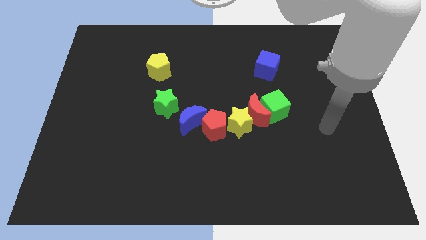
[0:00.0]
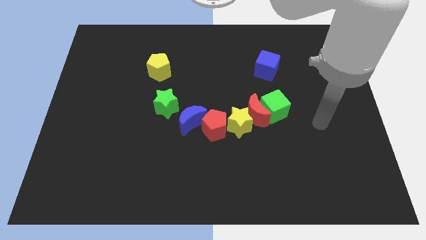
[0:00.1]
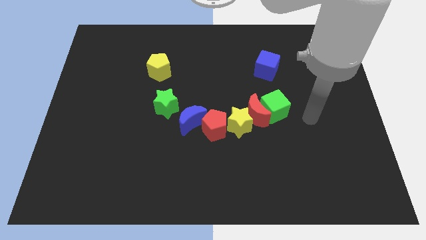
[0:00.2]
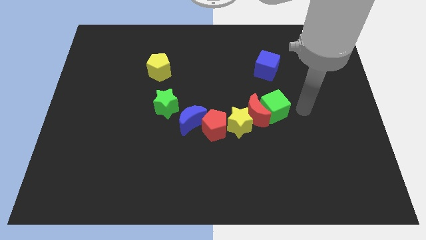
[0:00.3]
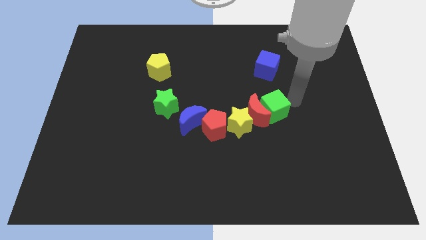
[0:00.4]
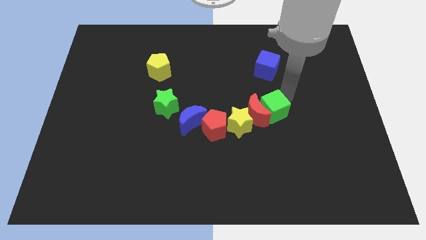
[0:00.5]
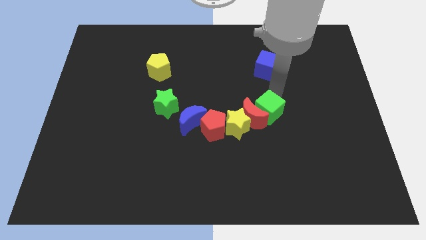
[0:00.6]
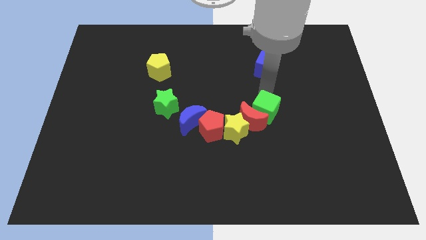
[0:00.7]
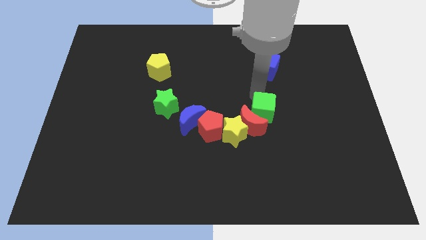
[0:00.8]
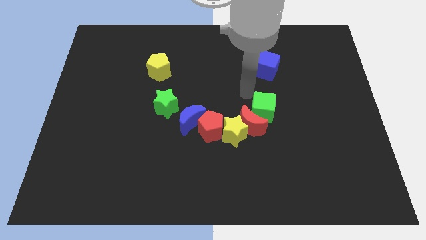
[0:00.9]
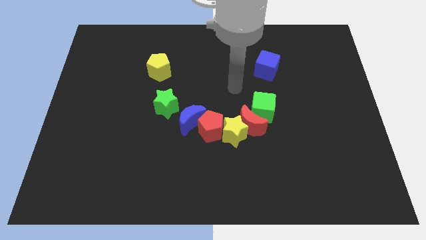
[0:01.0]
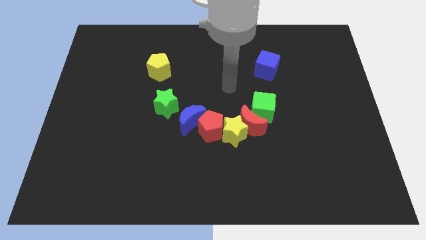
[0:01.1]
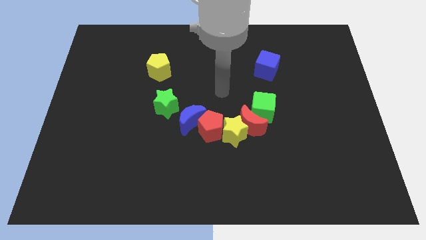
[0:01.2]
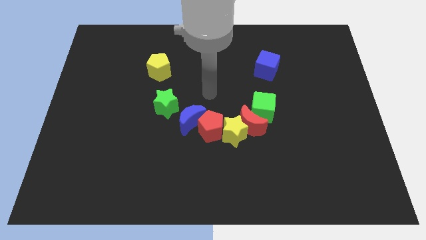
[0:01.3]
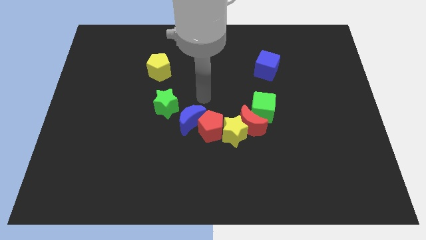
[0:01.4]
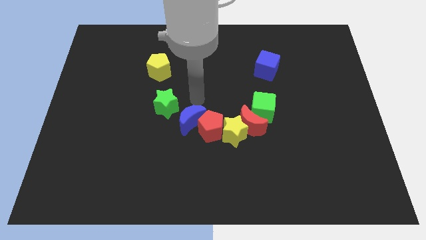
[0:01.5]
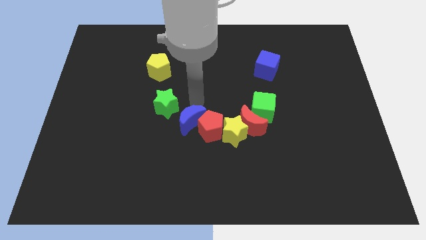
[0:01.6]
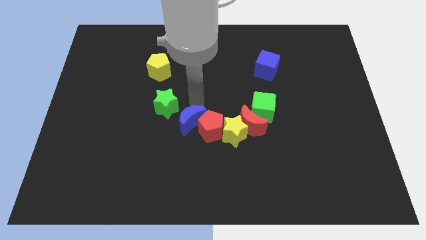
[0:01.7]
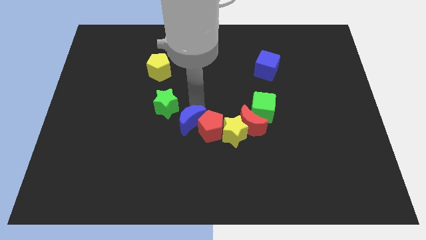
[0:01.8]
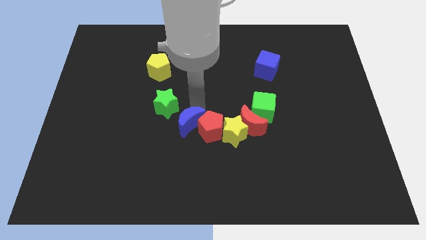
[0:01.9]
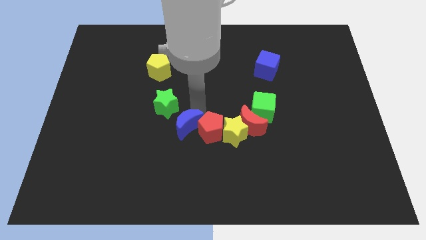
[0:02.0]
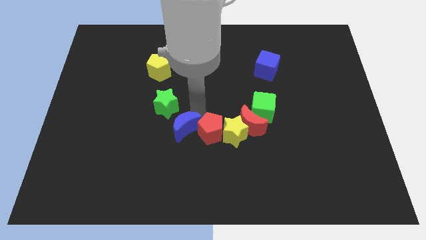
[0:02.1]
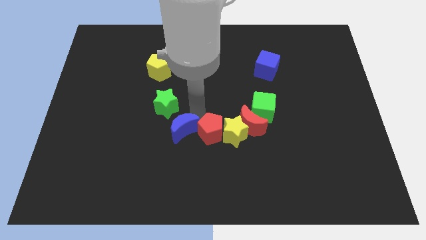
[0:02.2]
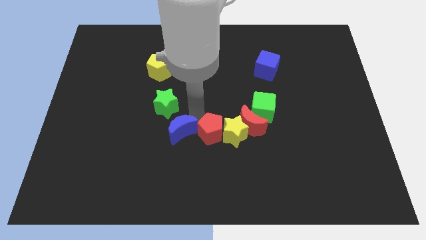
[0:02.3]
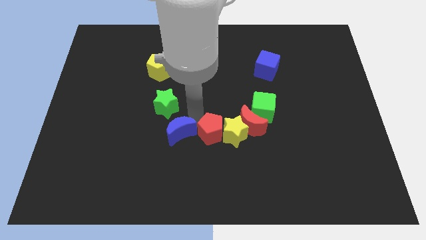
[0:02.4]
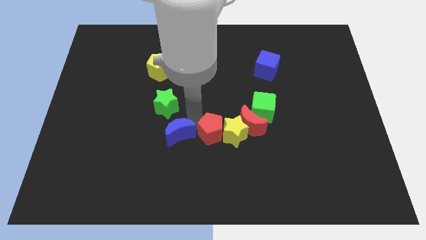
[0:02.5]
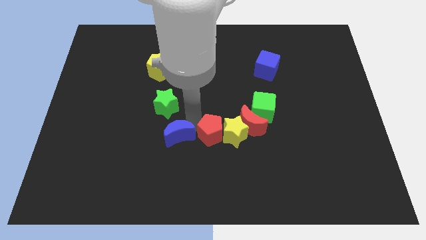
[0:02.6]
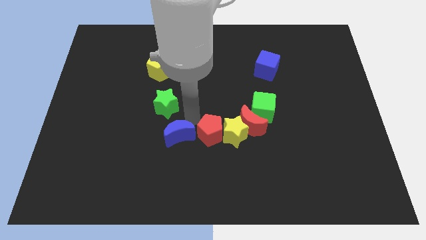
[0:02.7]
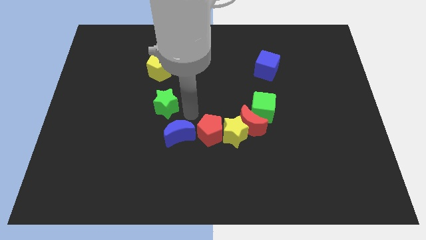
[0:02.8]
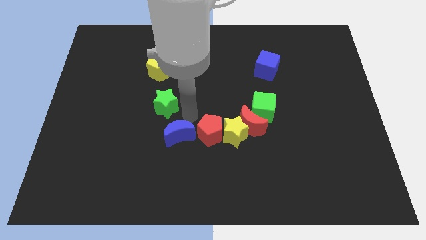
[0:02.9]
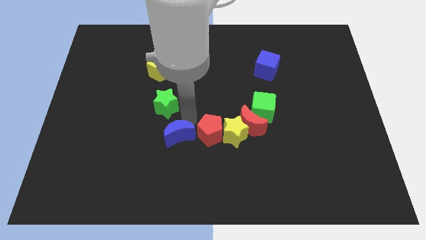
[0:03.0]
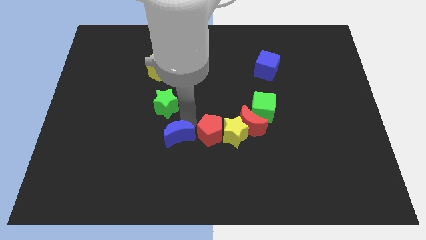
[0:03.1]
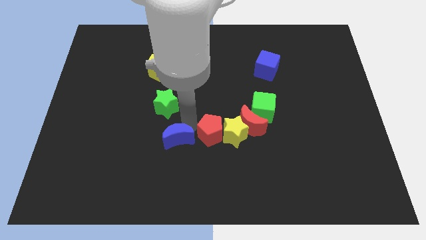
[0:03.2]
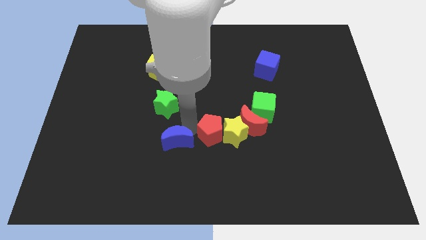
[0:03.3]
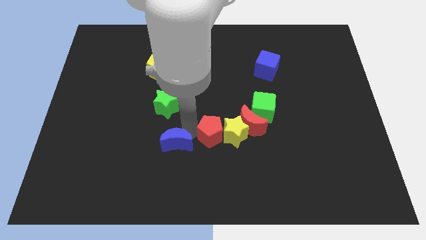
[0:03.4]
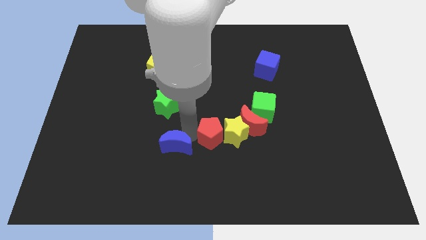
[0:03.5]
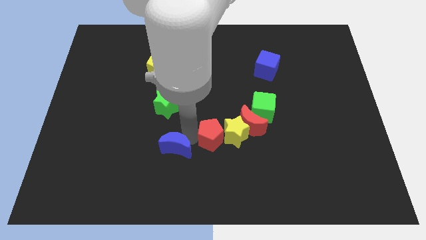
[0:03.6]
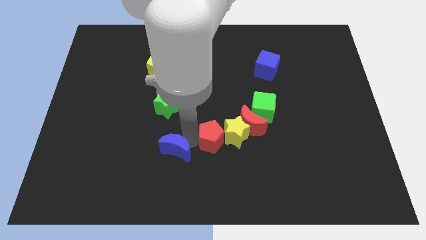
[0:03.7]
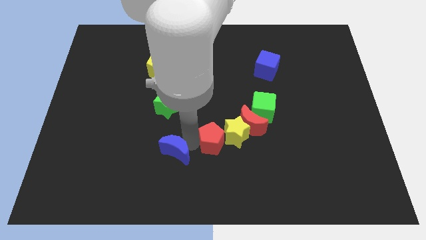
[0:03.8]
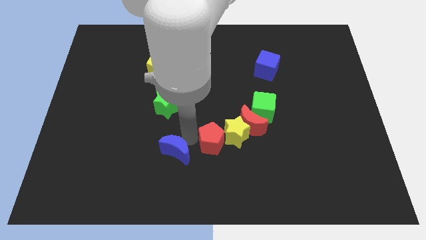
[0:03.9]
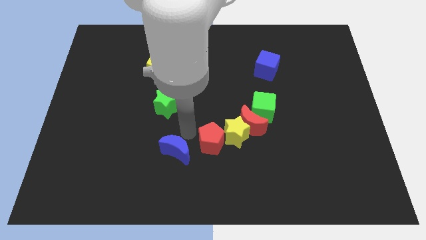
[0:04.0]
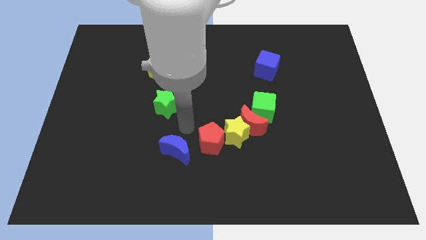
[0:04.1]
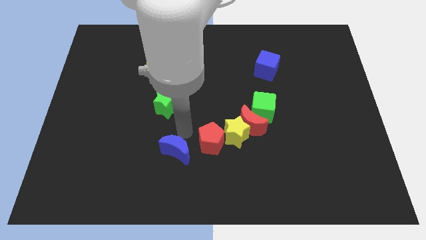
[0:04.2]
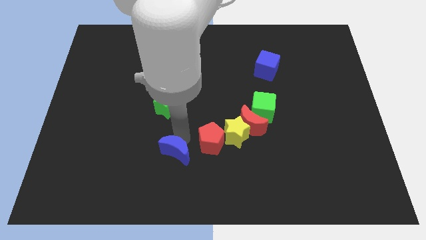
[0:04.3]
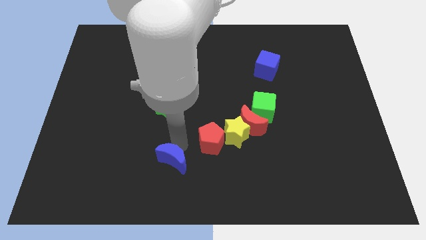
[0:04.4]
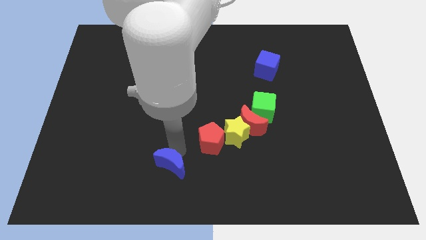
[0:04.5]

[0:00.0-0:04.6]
move the blue moon away from the red pentagon and green star

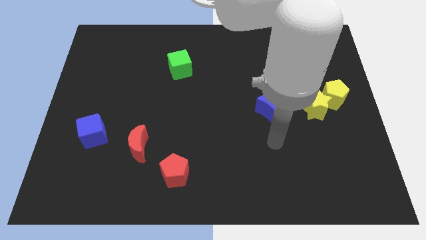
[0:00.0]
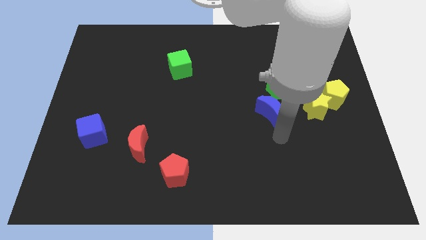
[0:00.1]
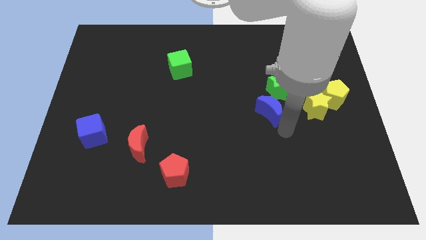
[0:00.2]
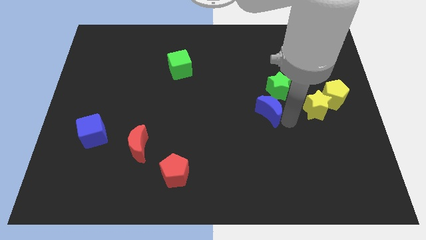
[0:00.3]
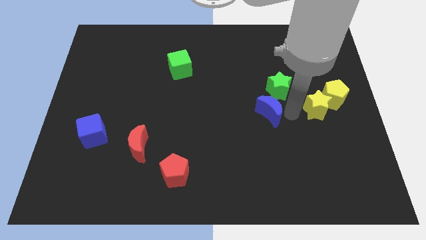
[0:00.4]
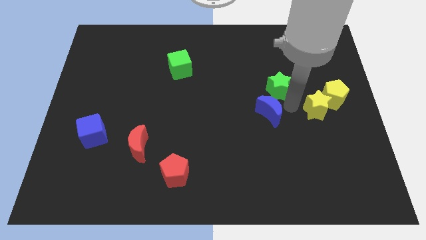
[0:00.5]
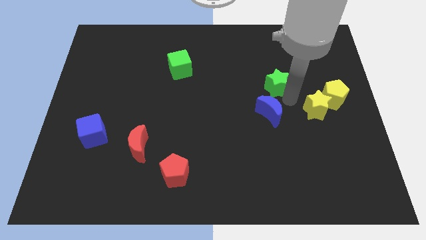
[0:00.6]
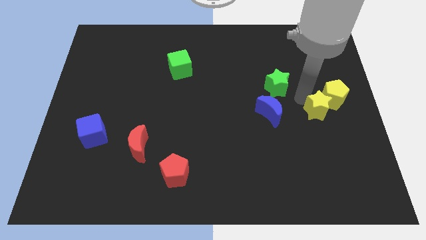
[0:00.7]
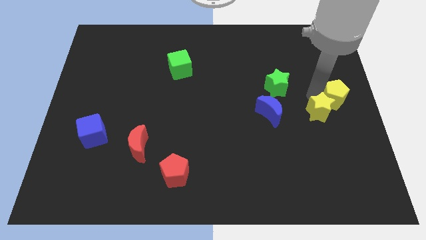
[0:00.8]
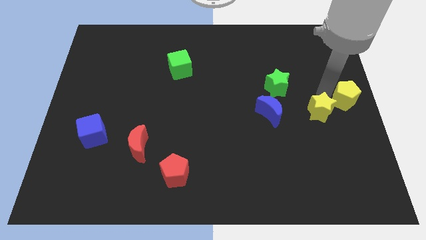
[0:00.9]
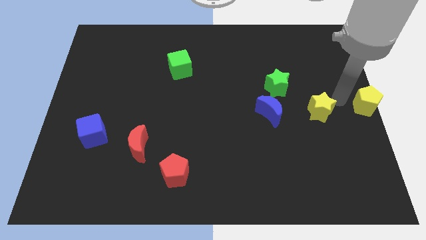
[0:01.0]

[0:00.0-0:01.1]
move the yellow star away from the yellow pentagon

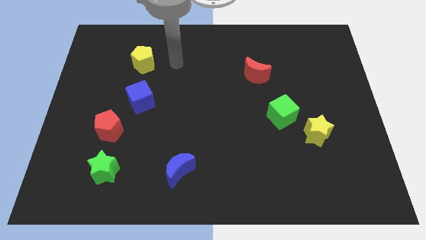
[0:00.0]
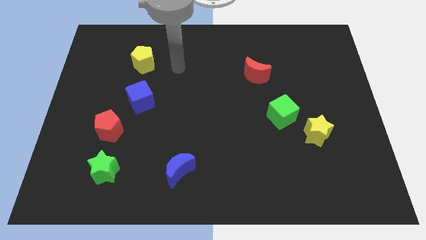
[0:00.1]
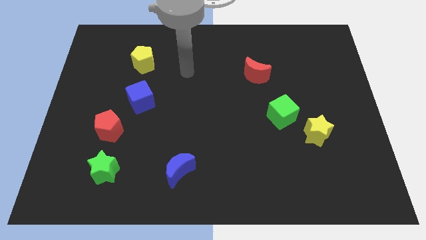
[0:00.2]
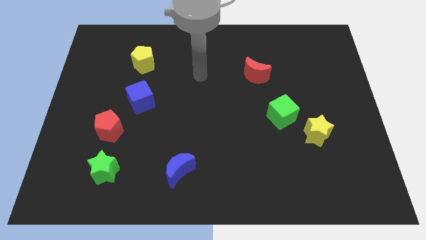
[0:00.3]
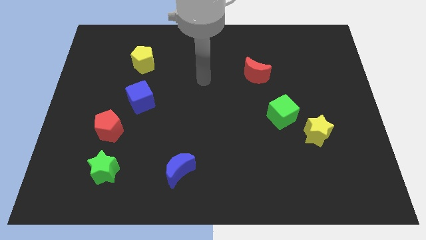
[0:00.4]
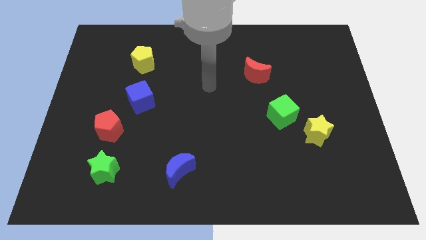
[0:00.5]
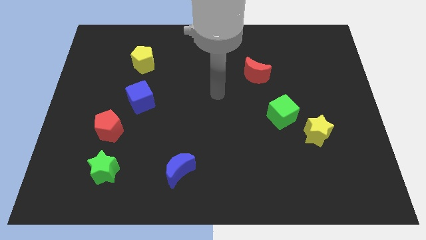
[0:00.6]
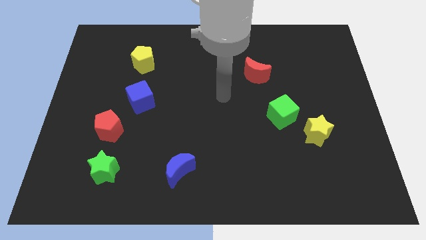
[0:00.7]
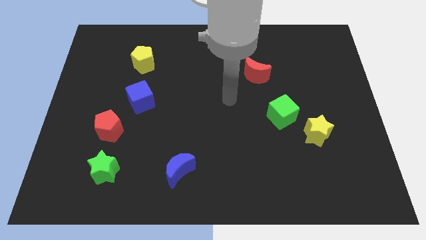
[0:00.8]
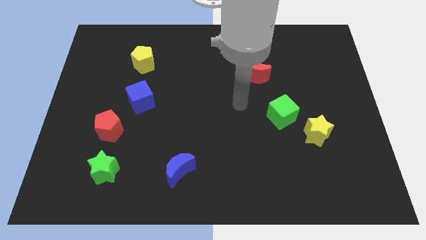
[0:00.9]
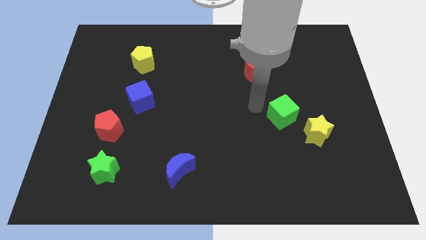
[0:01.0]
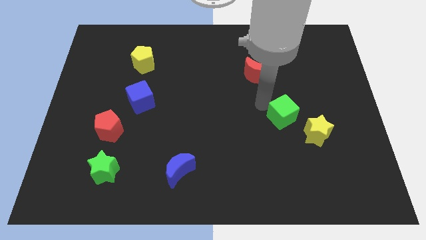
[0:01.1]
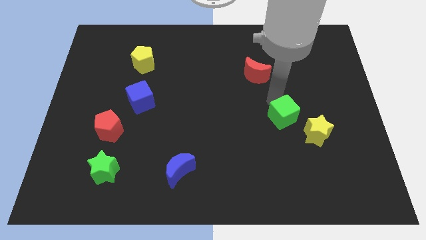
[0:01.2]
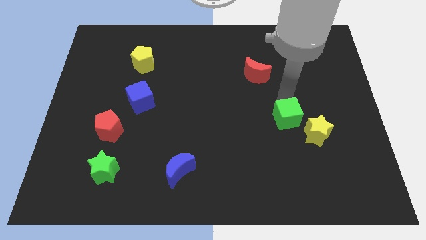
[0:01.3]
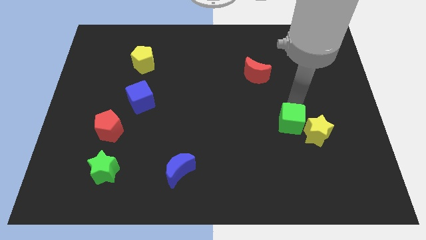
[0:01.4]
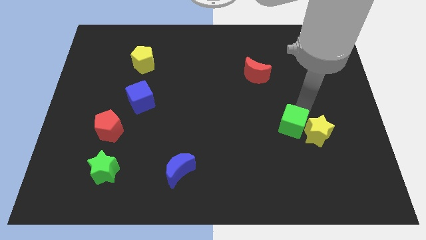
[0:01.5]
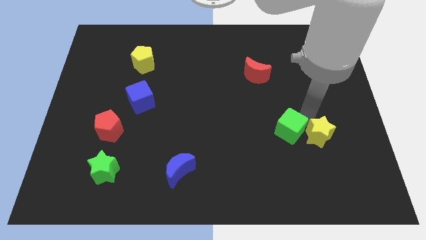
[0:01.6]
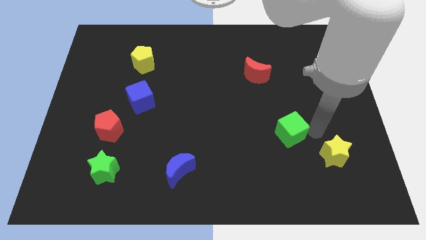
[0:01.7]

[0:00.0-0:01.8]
pull the green cube apart from the yellow star

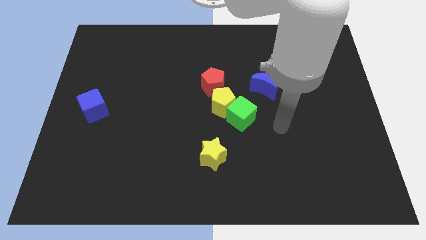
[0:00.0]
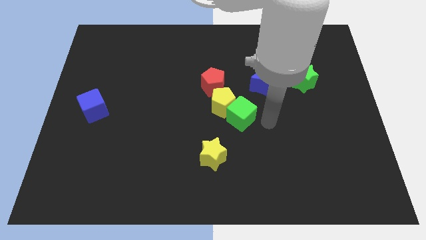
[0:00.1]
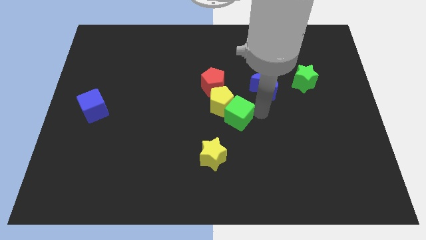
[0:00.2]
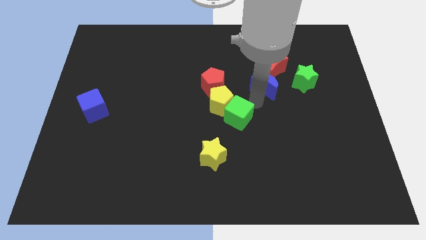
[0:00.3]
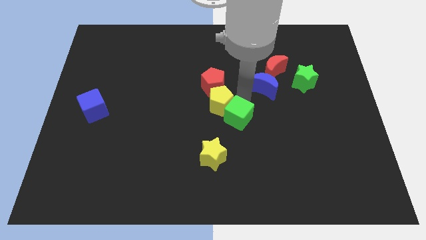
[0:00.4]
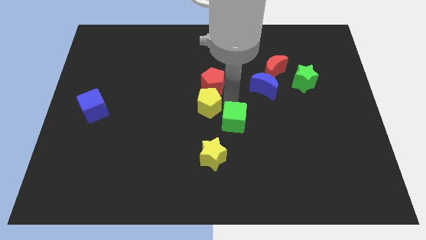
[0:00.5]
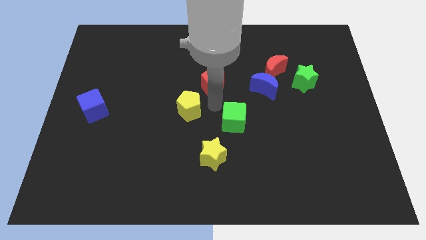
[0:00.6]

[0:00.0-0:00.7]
separate the green cube from the yellow pentagon

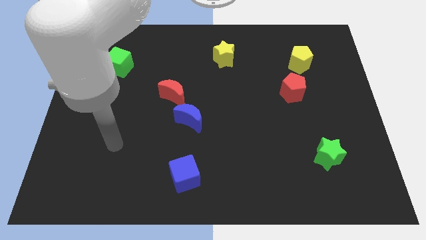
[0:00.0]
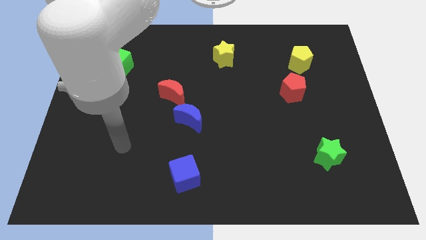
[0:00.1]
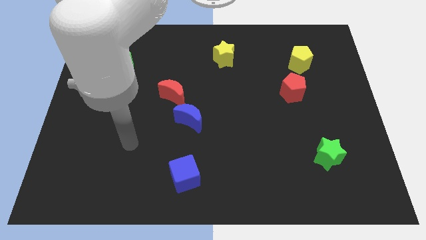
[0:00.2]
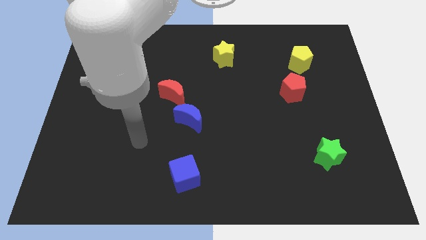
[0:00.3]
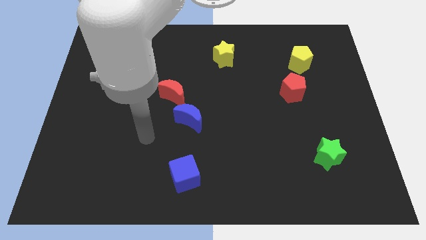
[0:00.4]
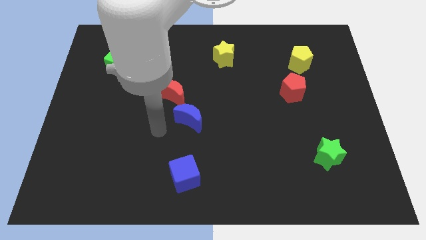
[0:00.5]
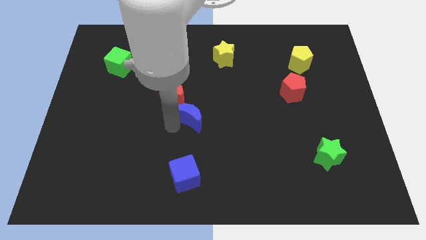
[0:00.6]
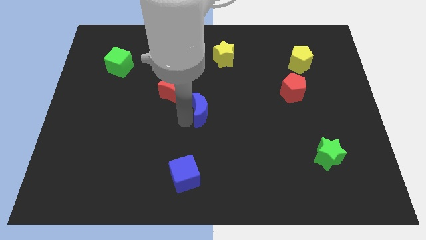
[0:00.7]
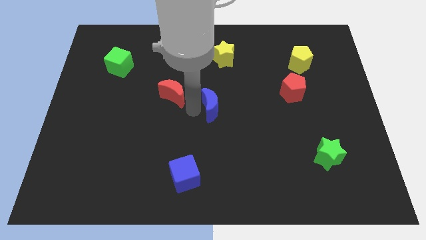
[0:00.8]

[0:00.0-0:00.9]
pull the red moon apart from the blue moon

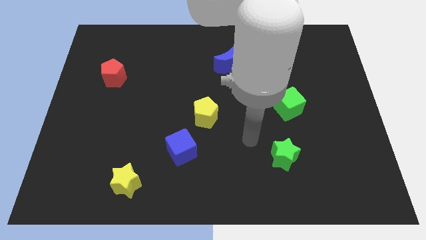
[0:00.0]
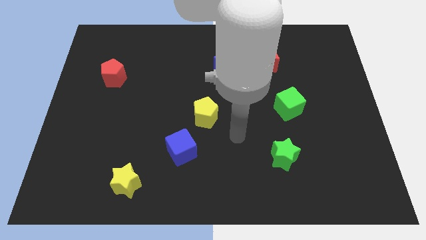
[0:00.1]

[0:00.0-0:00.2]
separate the blue cube from the yellow pentagon
